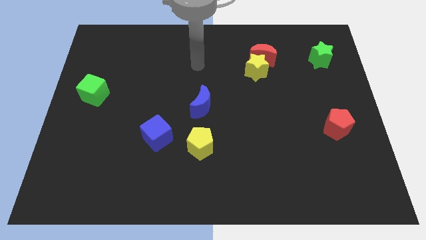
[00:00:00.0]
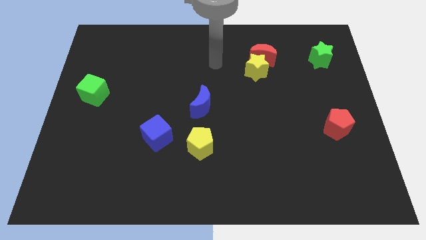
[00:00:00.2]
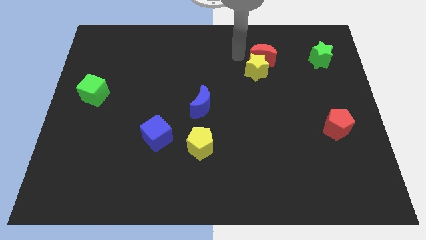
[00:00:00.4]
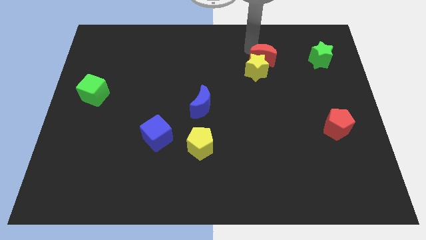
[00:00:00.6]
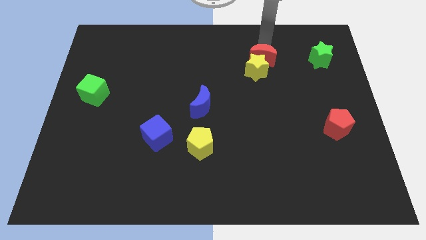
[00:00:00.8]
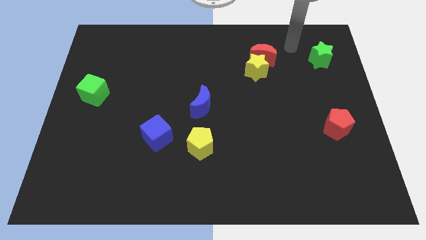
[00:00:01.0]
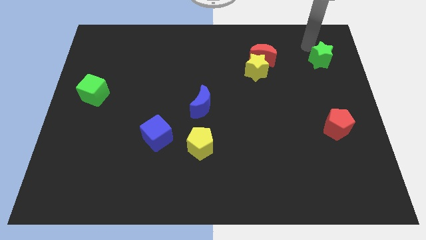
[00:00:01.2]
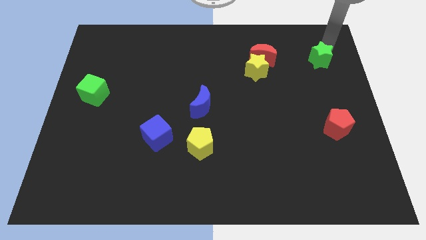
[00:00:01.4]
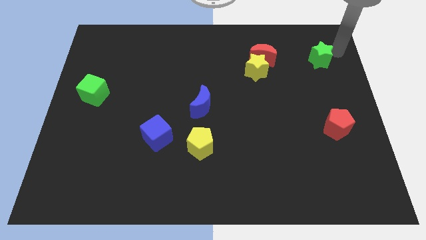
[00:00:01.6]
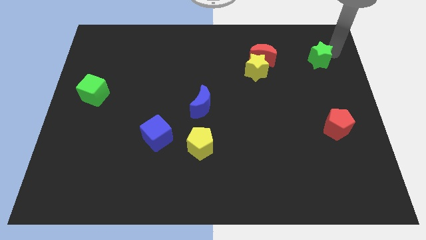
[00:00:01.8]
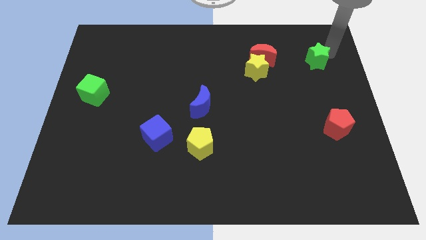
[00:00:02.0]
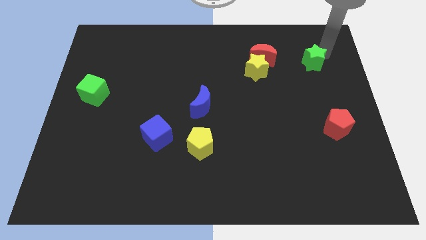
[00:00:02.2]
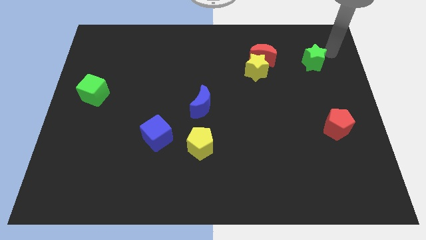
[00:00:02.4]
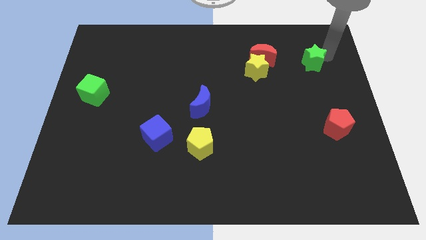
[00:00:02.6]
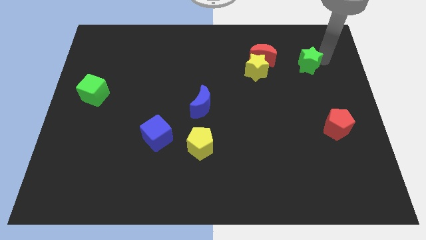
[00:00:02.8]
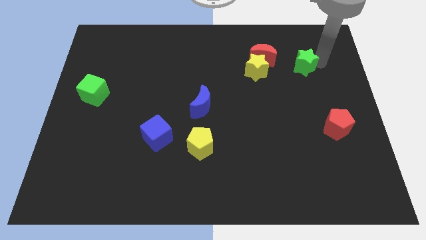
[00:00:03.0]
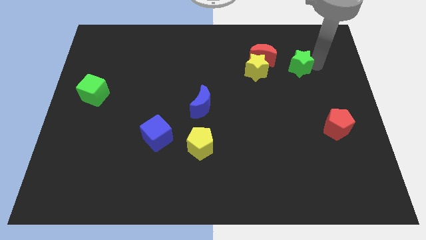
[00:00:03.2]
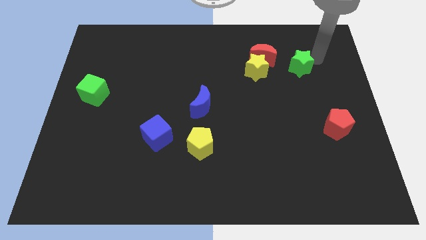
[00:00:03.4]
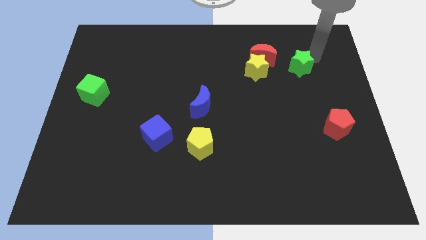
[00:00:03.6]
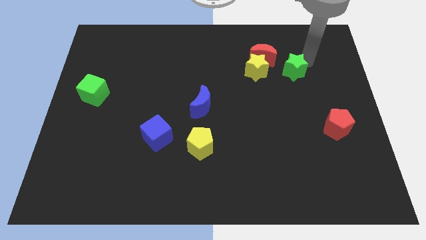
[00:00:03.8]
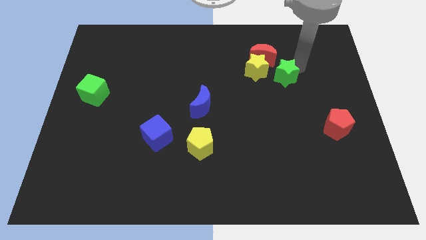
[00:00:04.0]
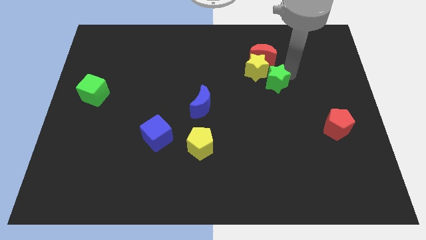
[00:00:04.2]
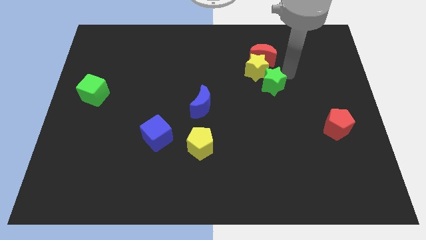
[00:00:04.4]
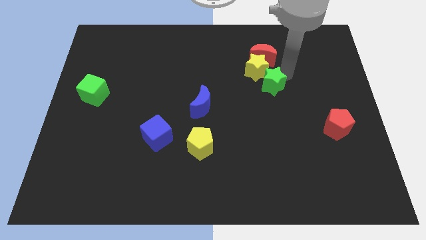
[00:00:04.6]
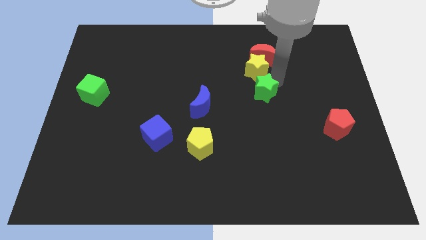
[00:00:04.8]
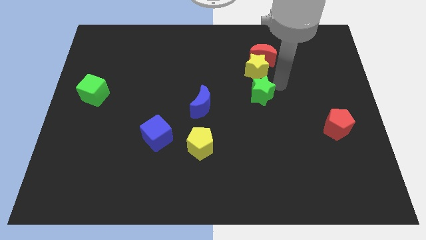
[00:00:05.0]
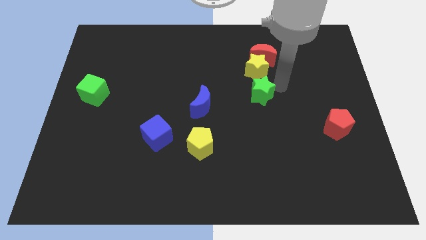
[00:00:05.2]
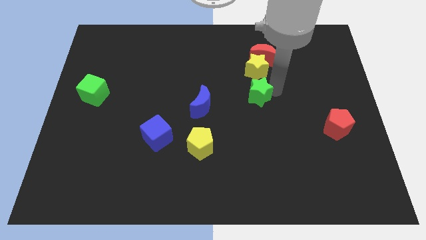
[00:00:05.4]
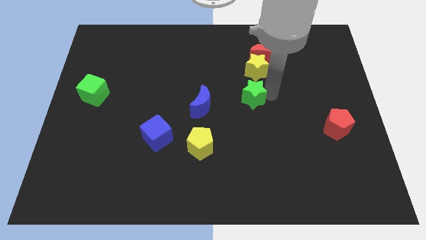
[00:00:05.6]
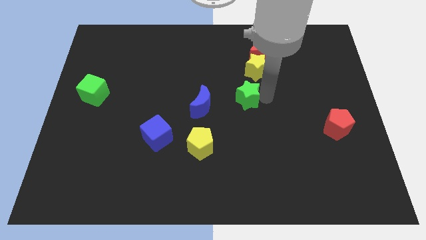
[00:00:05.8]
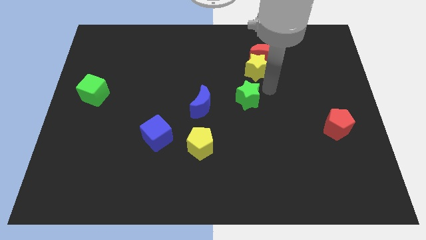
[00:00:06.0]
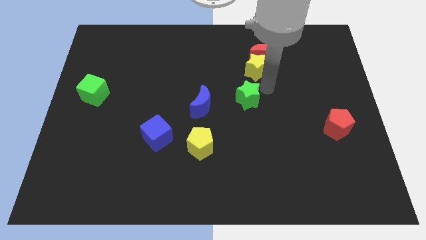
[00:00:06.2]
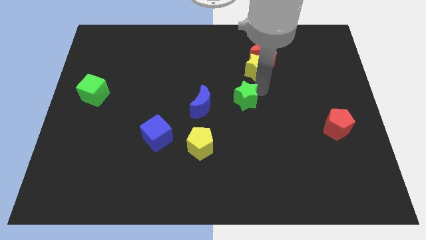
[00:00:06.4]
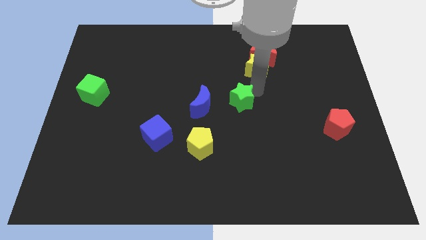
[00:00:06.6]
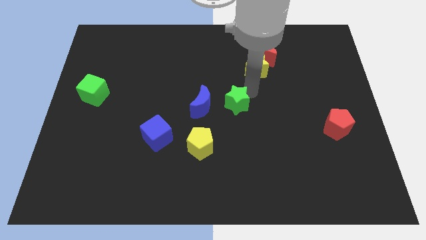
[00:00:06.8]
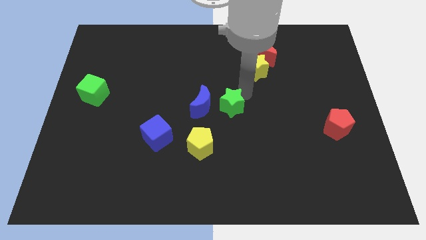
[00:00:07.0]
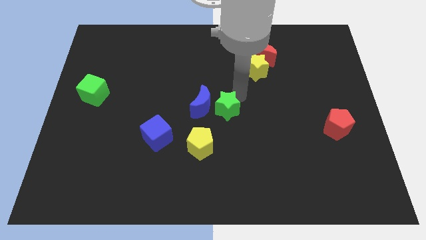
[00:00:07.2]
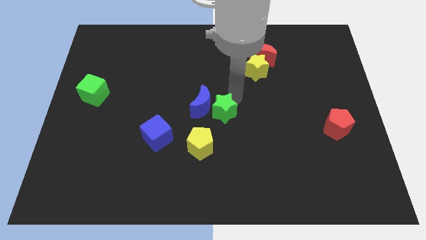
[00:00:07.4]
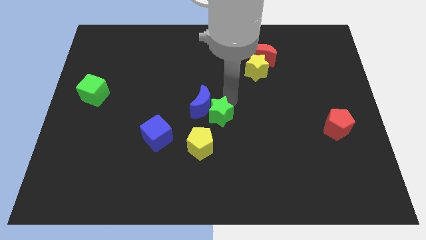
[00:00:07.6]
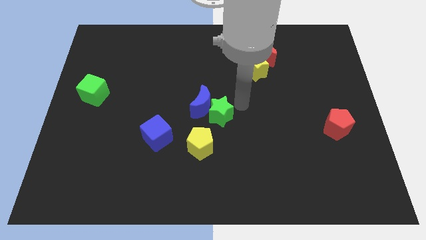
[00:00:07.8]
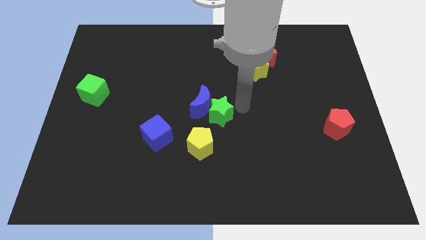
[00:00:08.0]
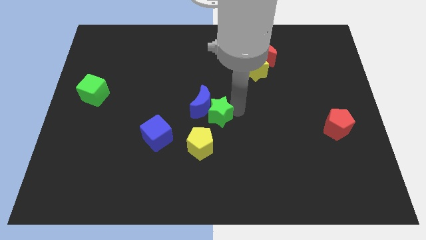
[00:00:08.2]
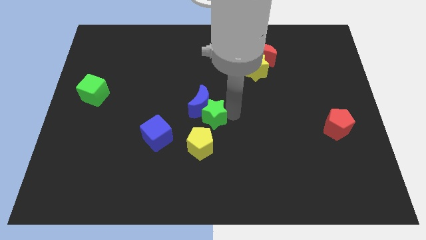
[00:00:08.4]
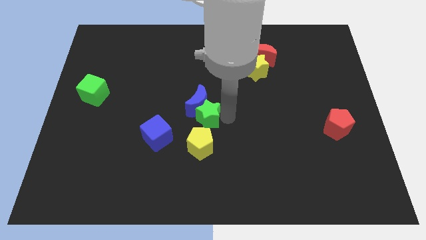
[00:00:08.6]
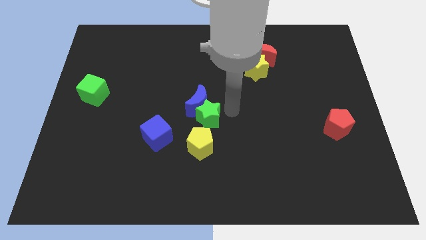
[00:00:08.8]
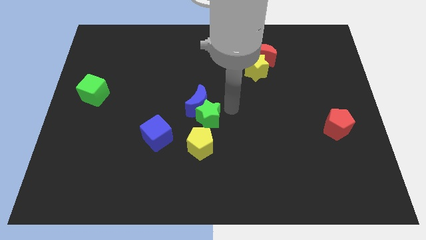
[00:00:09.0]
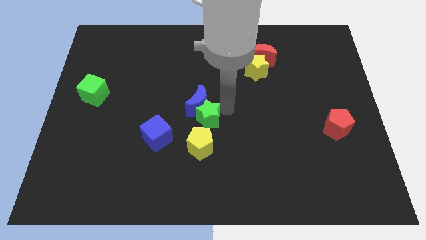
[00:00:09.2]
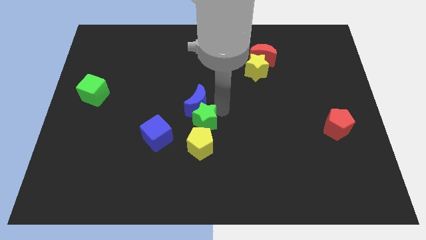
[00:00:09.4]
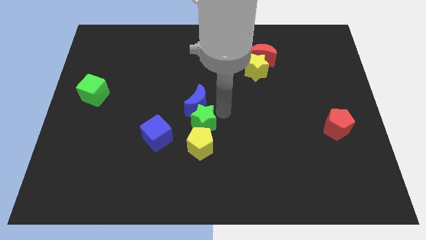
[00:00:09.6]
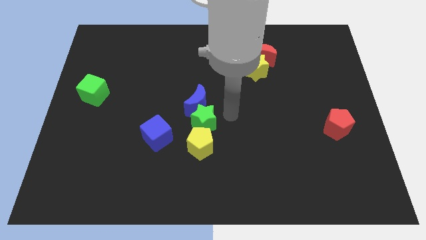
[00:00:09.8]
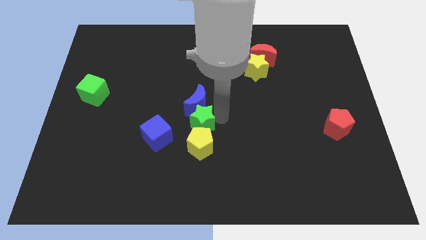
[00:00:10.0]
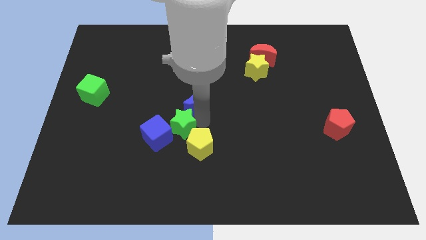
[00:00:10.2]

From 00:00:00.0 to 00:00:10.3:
move the green star close to the blue cube

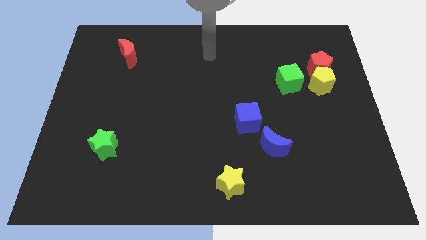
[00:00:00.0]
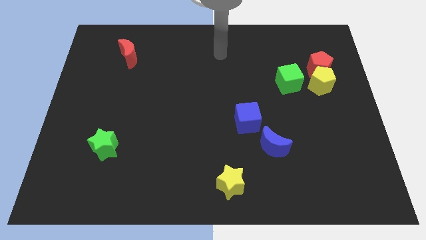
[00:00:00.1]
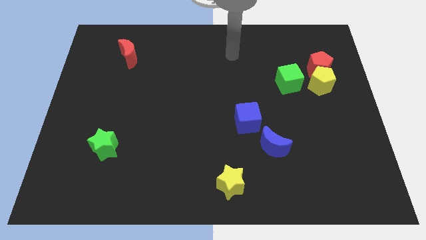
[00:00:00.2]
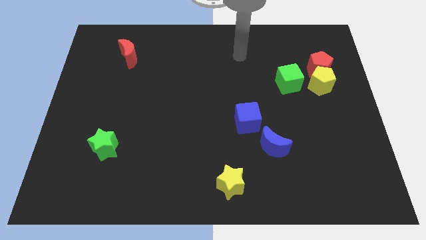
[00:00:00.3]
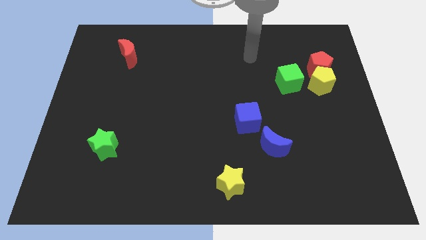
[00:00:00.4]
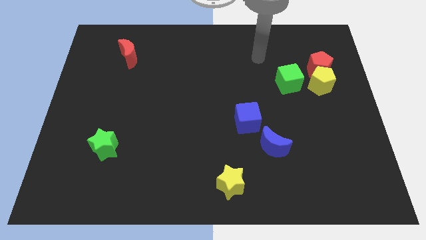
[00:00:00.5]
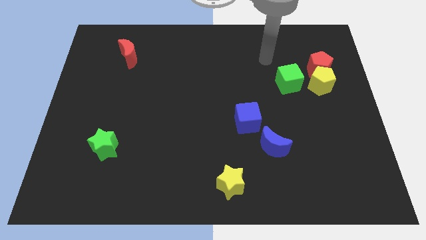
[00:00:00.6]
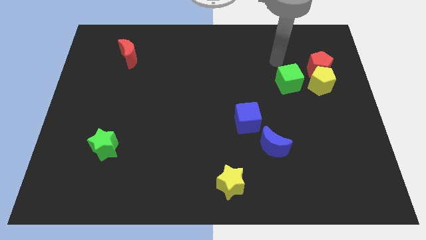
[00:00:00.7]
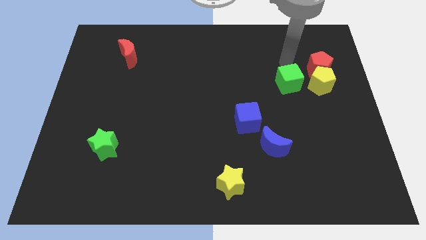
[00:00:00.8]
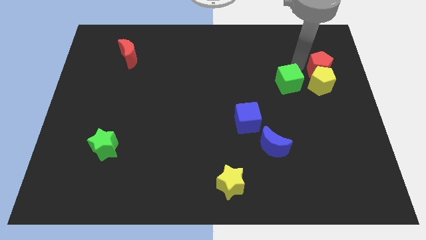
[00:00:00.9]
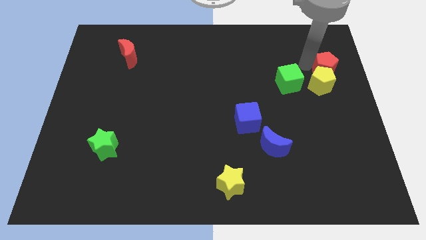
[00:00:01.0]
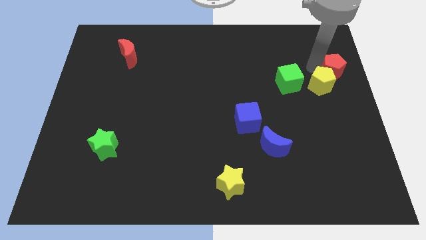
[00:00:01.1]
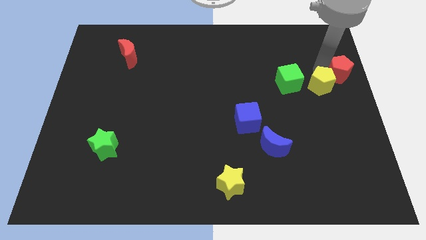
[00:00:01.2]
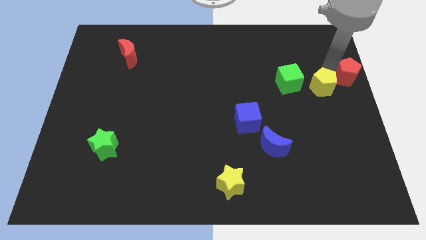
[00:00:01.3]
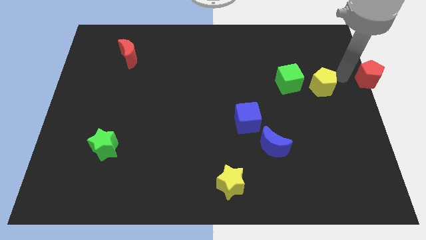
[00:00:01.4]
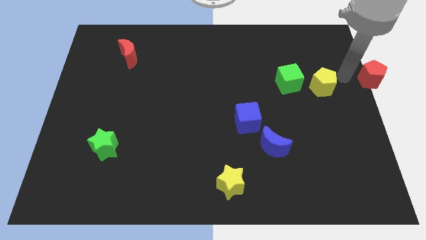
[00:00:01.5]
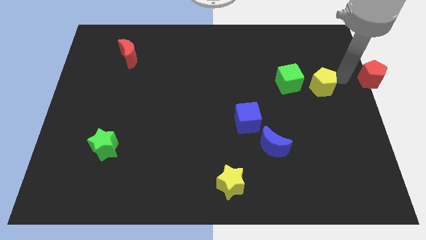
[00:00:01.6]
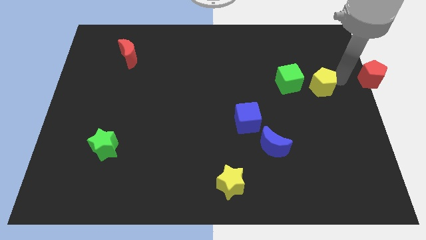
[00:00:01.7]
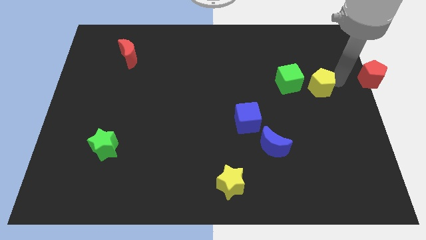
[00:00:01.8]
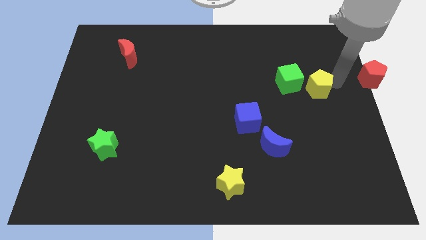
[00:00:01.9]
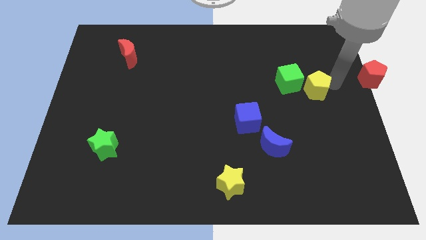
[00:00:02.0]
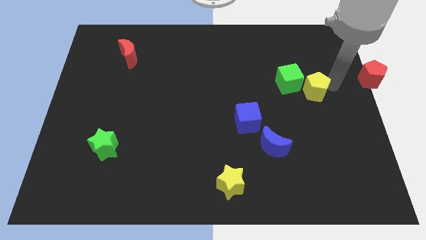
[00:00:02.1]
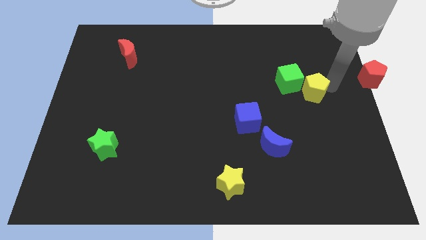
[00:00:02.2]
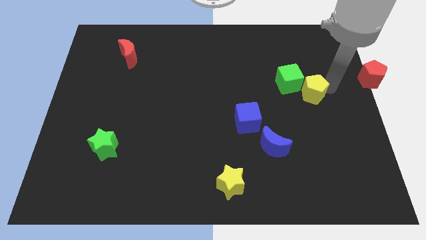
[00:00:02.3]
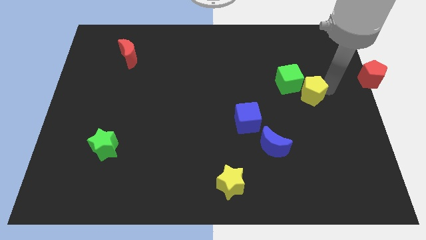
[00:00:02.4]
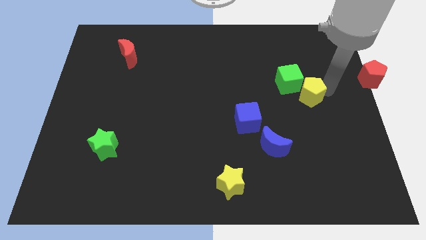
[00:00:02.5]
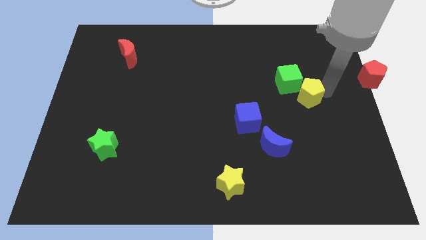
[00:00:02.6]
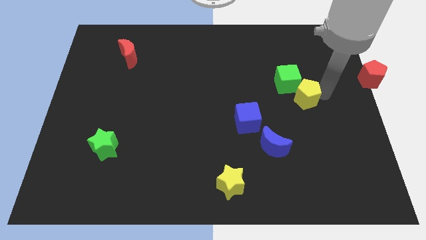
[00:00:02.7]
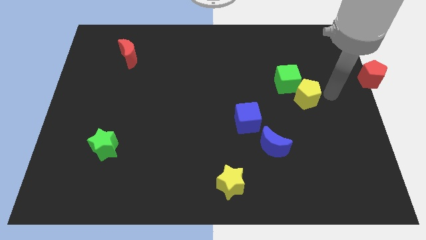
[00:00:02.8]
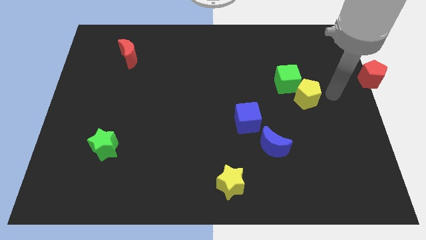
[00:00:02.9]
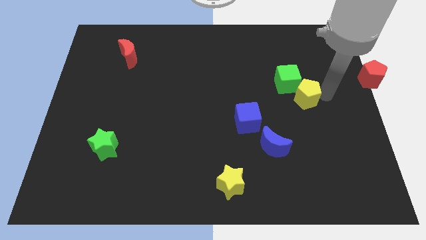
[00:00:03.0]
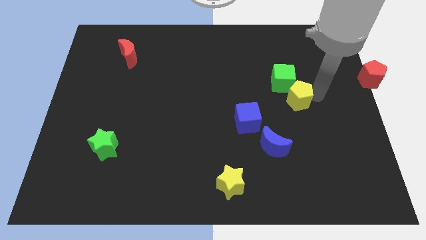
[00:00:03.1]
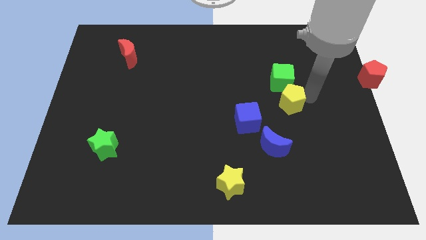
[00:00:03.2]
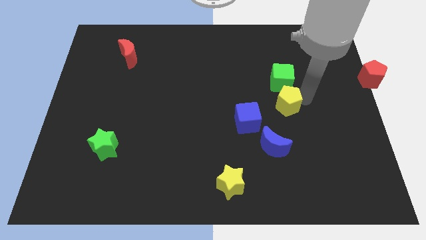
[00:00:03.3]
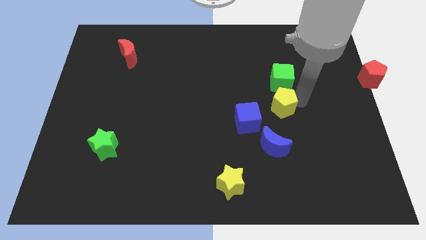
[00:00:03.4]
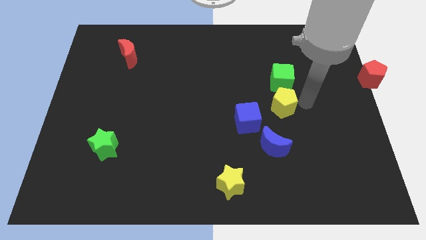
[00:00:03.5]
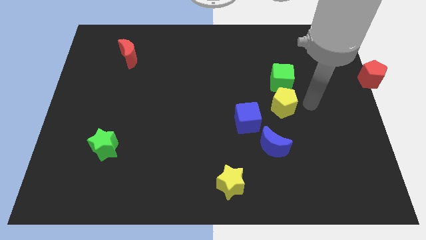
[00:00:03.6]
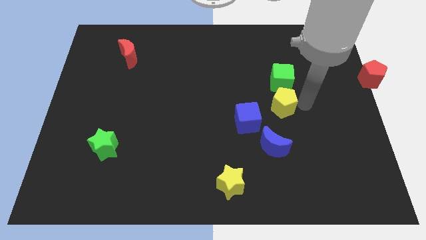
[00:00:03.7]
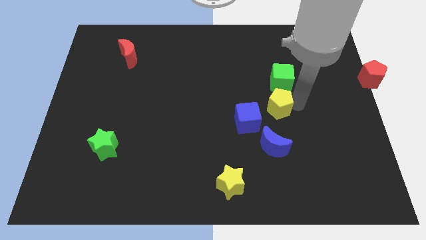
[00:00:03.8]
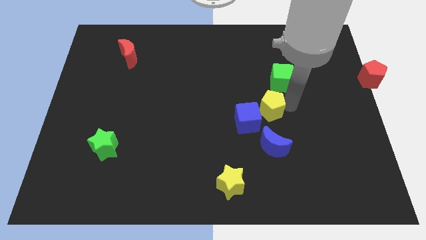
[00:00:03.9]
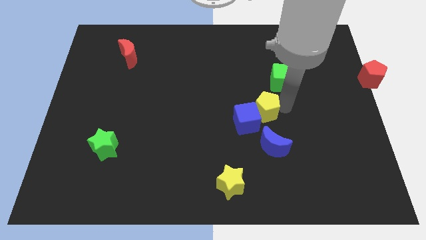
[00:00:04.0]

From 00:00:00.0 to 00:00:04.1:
push the yellow pentagon close to the blue cube
